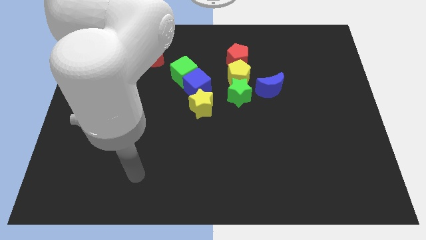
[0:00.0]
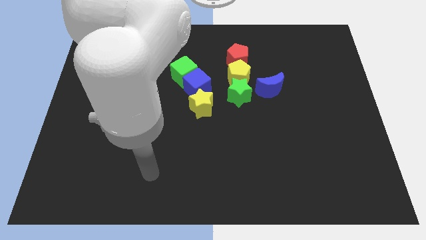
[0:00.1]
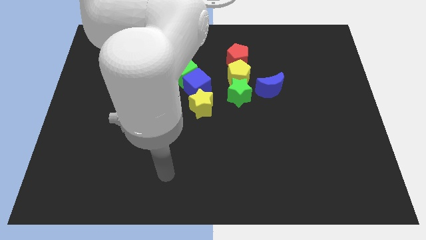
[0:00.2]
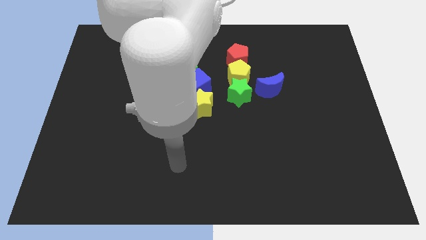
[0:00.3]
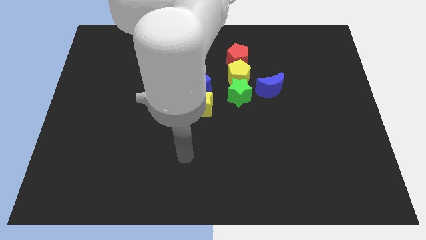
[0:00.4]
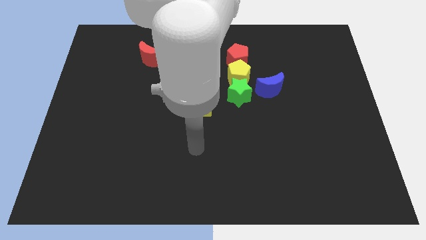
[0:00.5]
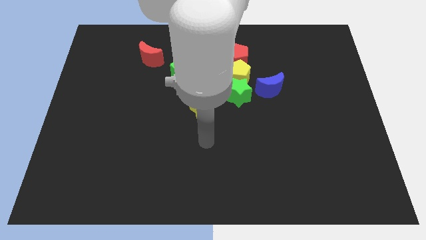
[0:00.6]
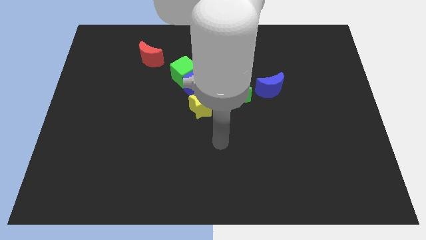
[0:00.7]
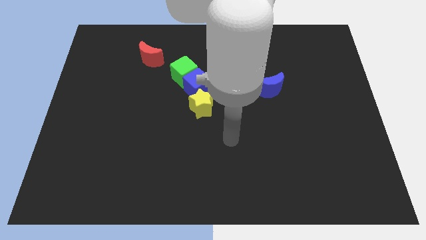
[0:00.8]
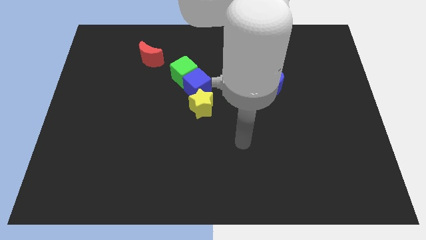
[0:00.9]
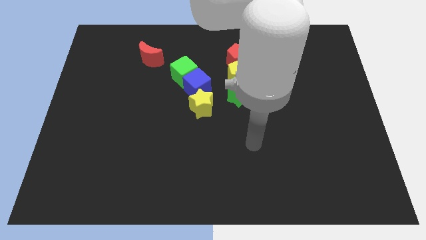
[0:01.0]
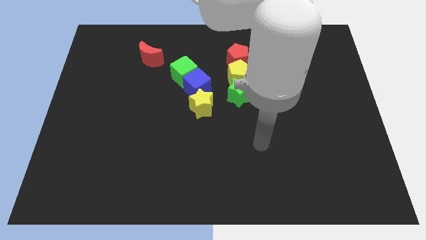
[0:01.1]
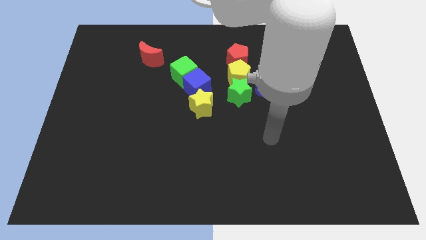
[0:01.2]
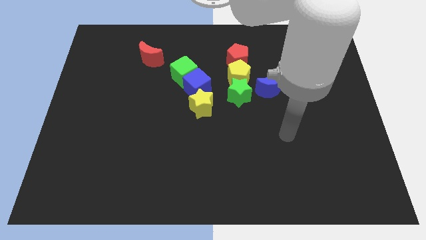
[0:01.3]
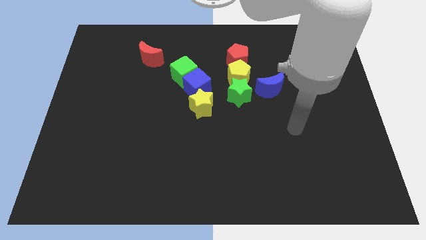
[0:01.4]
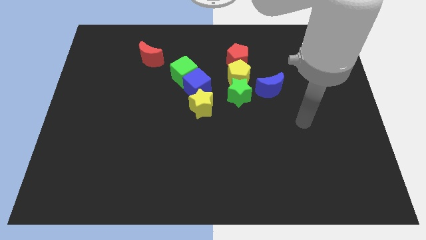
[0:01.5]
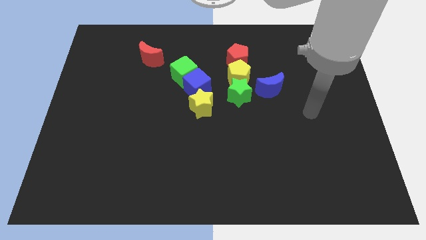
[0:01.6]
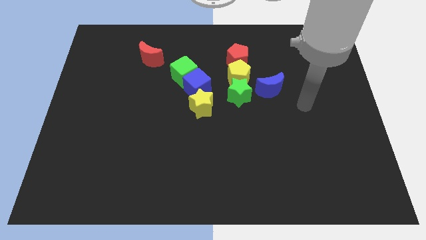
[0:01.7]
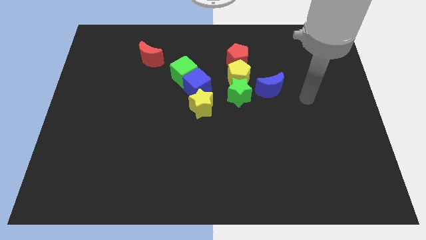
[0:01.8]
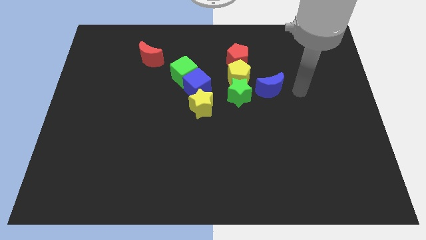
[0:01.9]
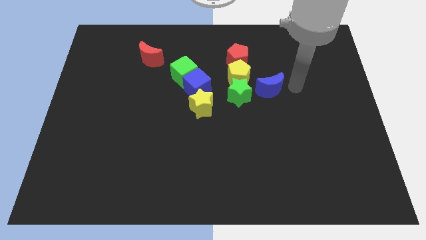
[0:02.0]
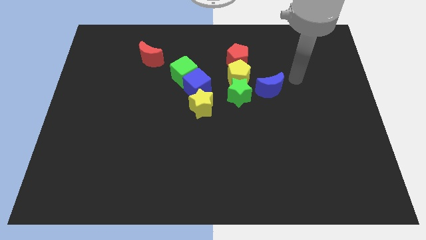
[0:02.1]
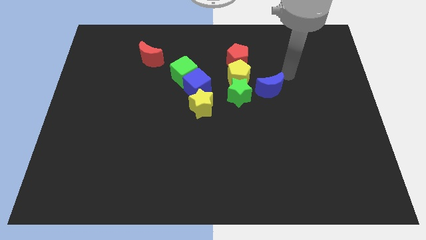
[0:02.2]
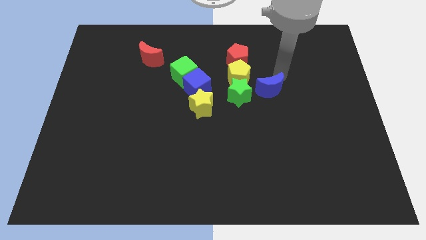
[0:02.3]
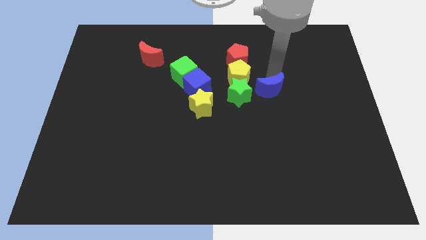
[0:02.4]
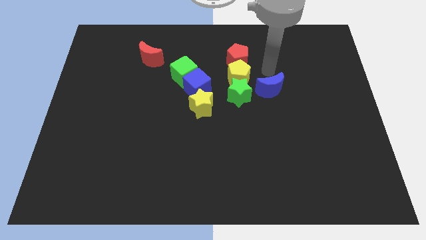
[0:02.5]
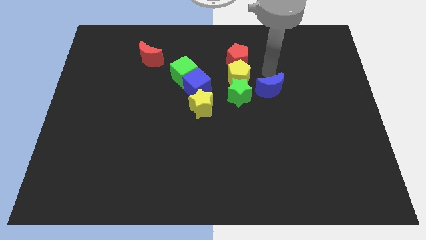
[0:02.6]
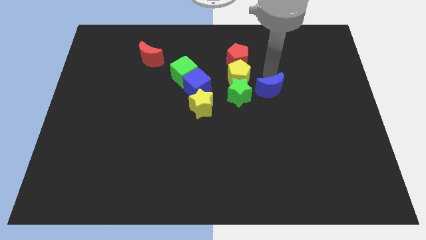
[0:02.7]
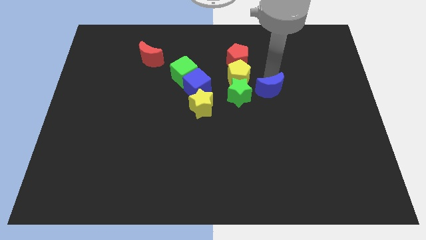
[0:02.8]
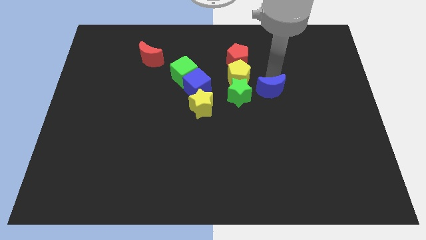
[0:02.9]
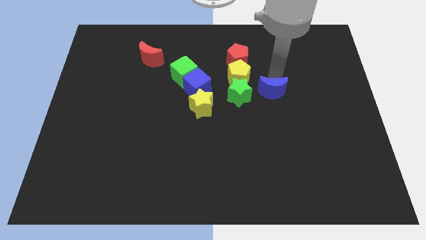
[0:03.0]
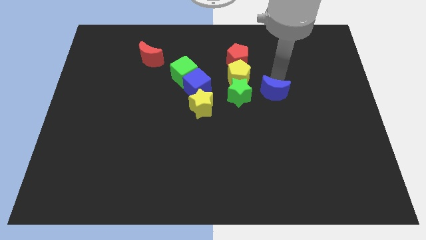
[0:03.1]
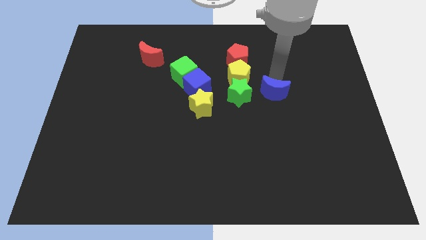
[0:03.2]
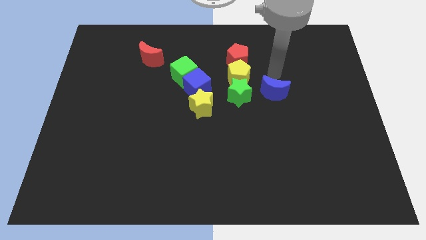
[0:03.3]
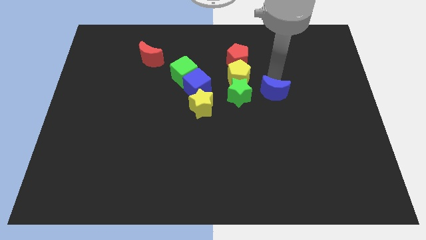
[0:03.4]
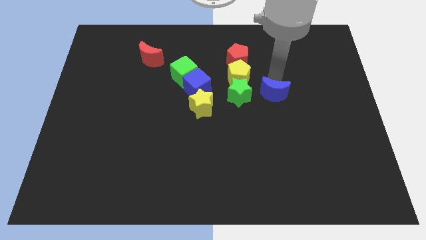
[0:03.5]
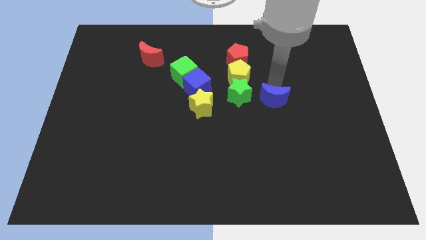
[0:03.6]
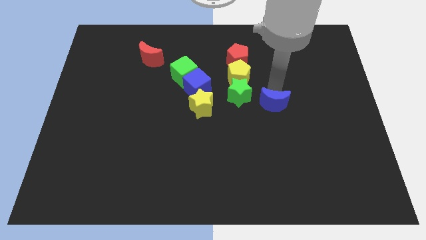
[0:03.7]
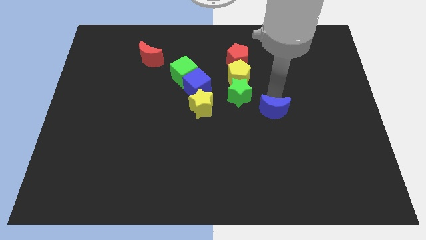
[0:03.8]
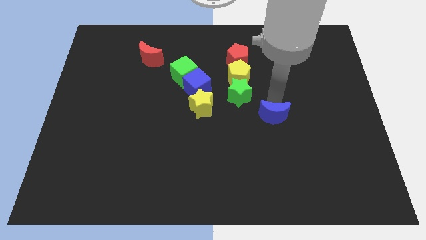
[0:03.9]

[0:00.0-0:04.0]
move the blue moon a little bit down

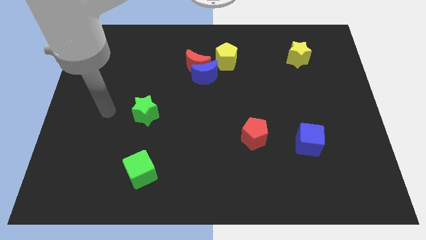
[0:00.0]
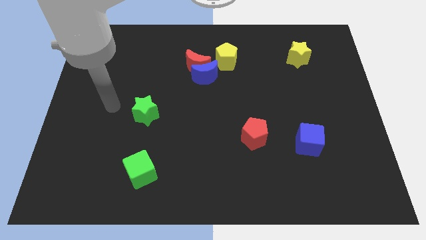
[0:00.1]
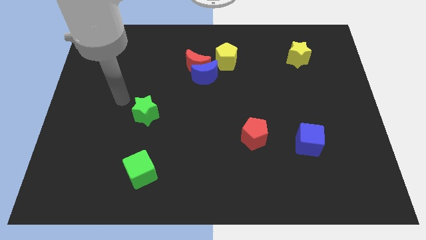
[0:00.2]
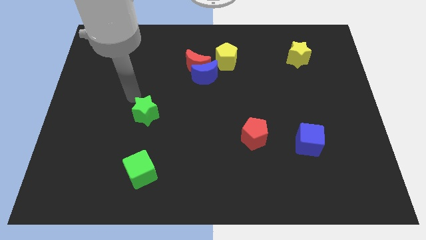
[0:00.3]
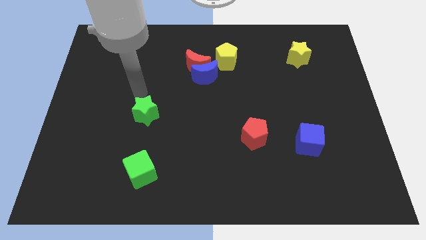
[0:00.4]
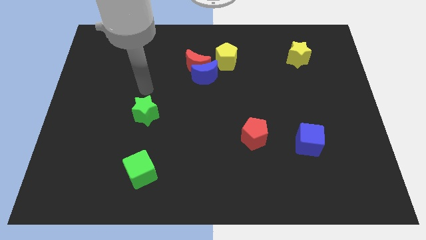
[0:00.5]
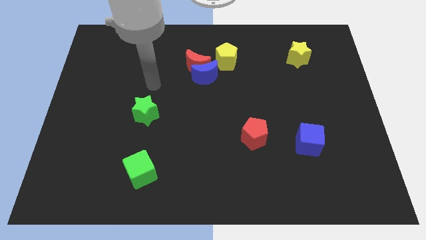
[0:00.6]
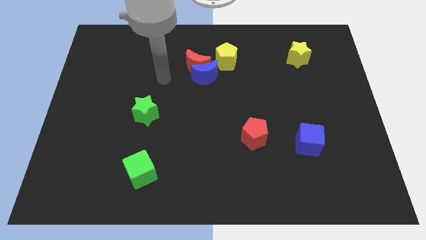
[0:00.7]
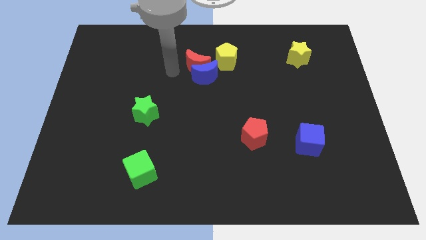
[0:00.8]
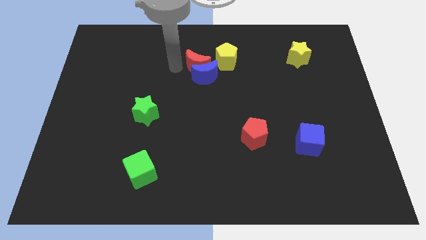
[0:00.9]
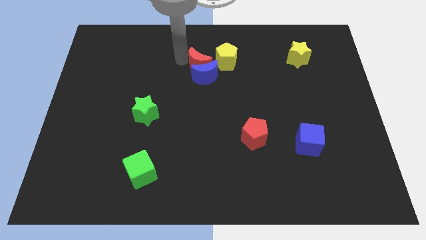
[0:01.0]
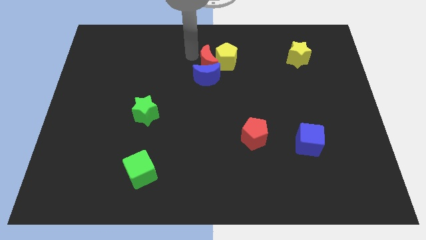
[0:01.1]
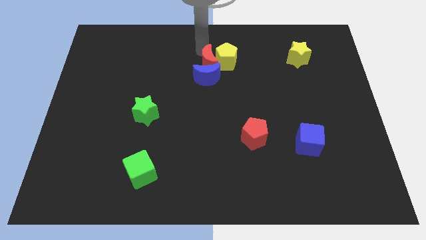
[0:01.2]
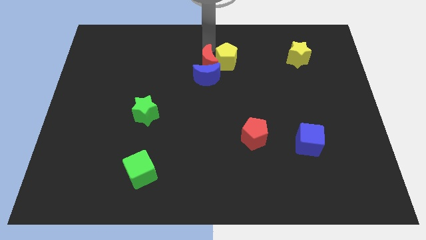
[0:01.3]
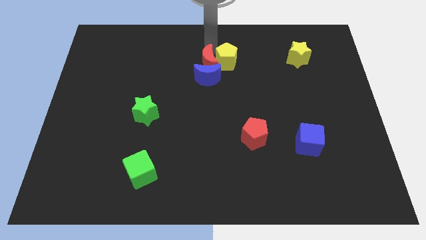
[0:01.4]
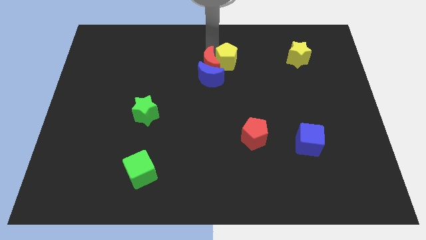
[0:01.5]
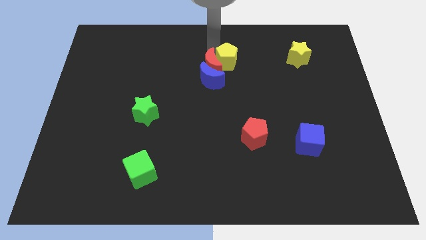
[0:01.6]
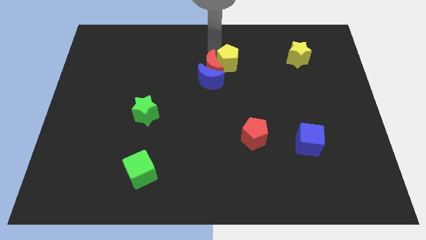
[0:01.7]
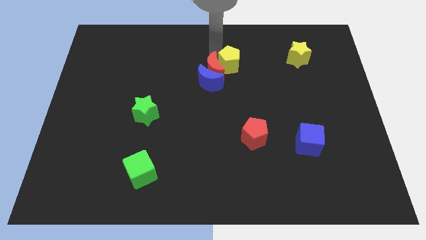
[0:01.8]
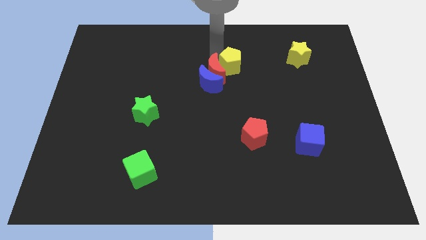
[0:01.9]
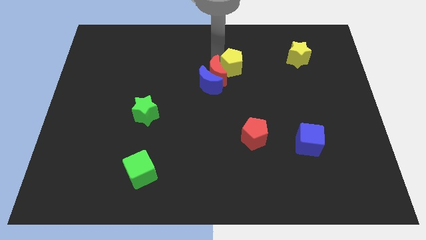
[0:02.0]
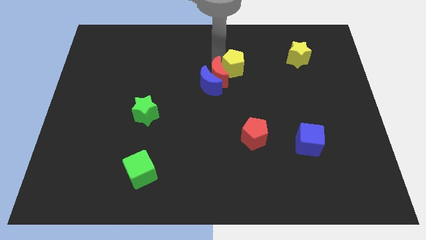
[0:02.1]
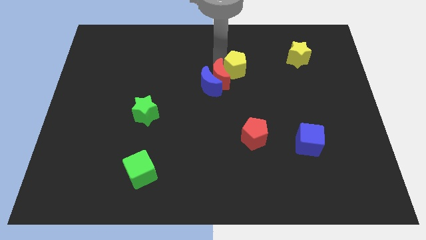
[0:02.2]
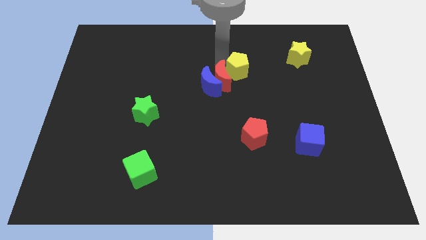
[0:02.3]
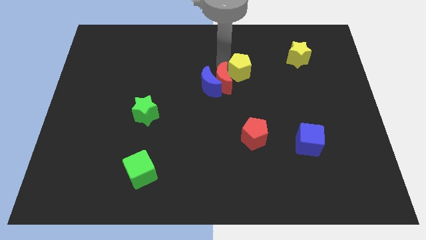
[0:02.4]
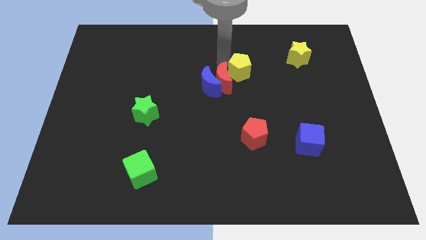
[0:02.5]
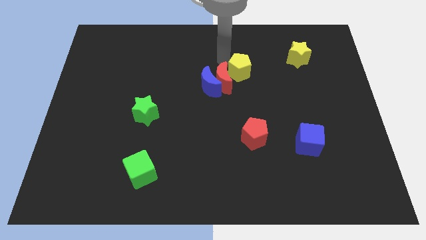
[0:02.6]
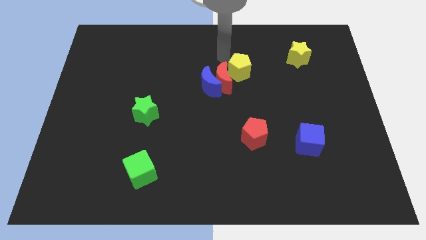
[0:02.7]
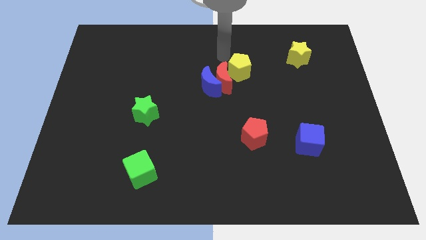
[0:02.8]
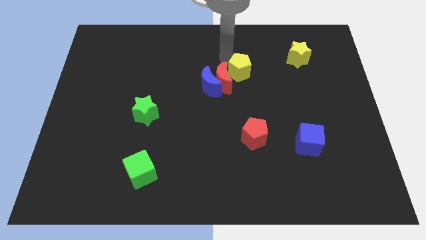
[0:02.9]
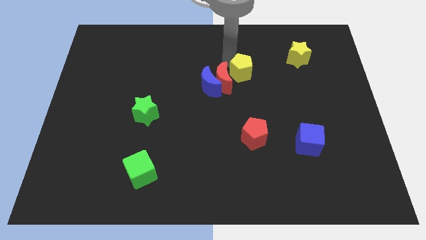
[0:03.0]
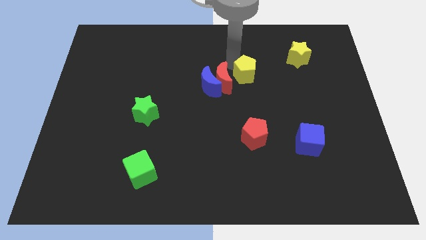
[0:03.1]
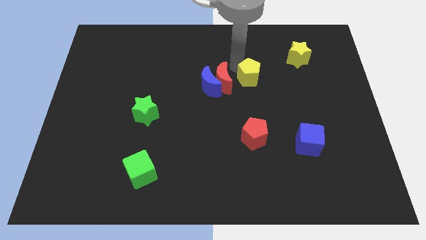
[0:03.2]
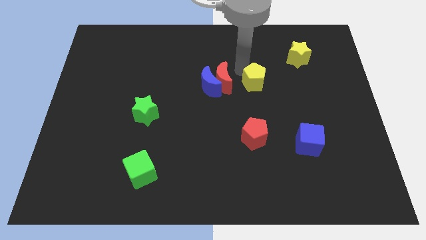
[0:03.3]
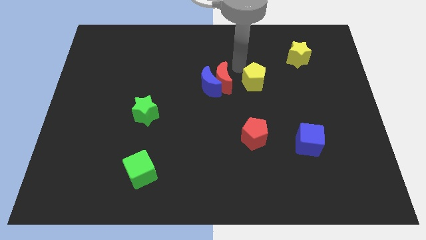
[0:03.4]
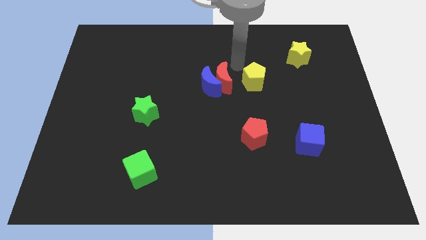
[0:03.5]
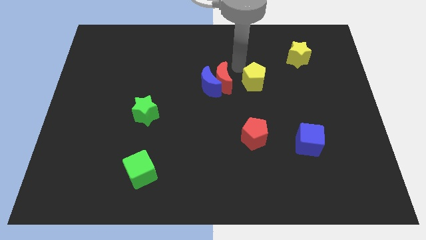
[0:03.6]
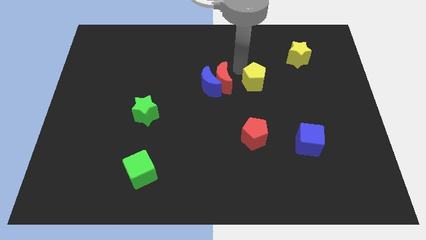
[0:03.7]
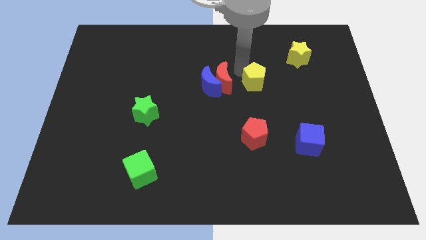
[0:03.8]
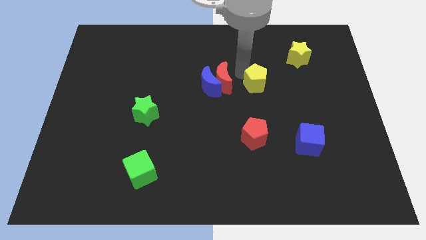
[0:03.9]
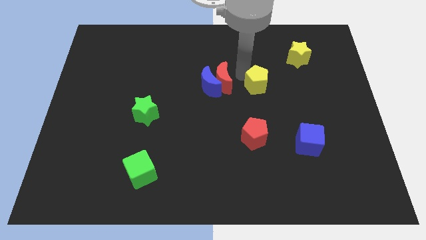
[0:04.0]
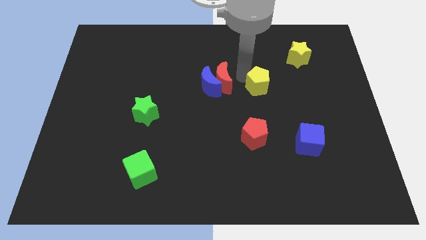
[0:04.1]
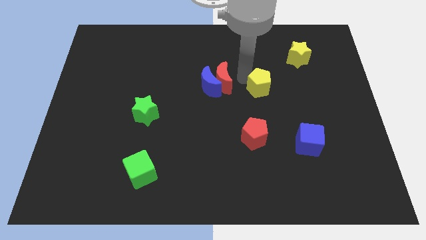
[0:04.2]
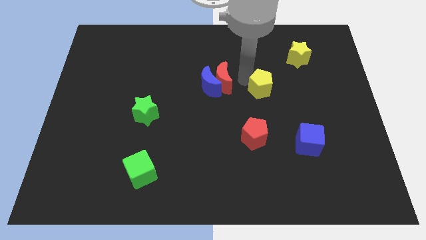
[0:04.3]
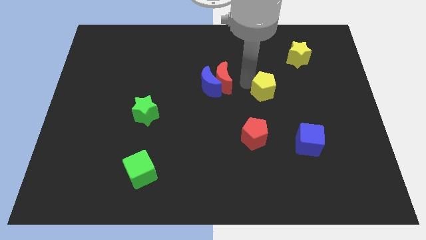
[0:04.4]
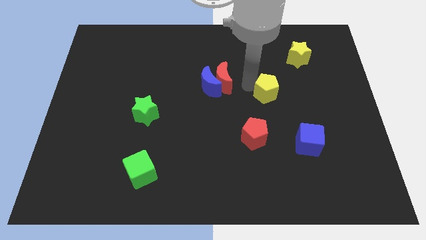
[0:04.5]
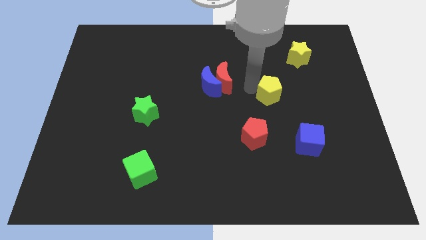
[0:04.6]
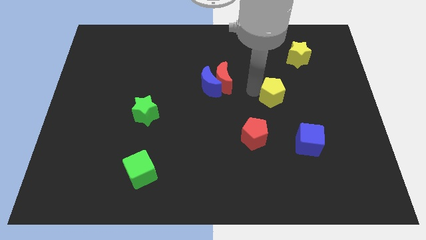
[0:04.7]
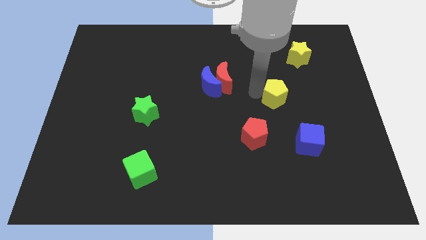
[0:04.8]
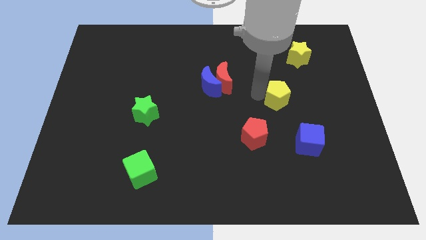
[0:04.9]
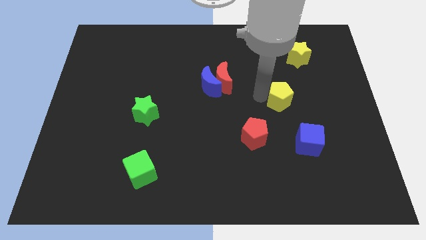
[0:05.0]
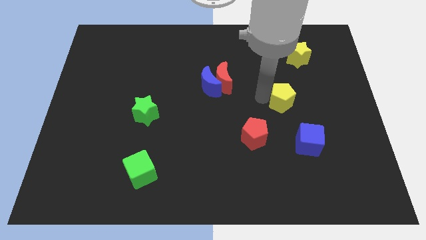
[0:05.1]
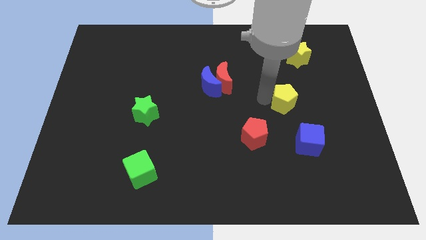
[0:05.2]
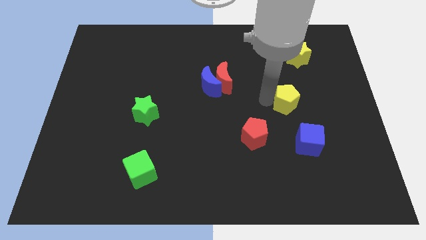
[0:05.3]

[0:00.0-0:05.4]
push the yellow pentagon down and then to the right
